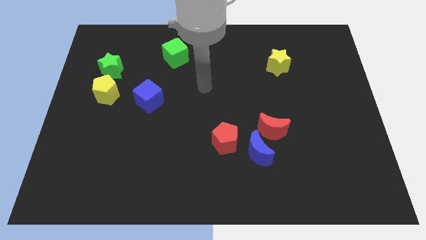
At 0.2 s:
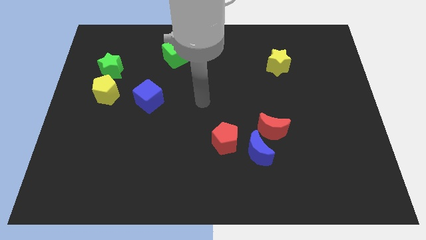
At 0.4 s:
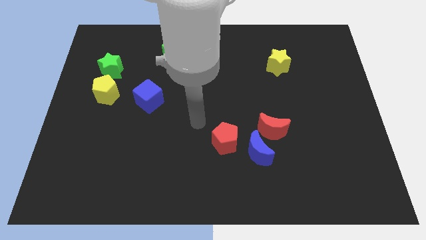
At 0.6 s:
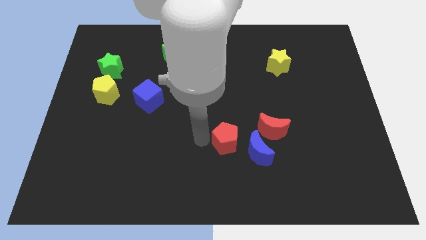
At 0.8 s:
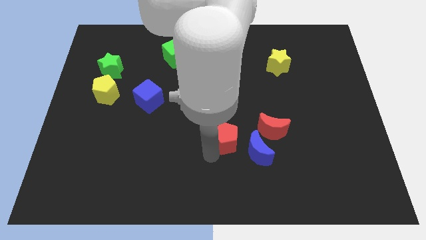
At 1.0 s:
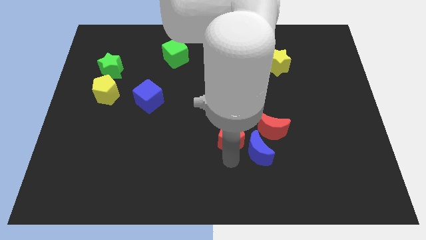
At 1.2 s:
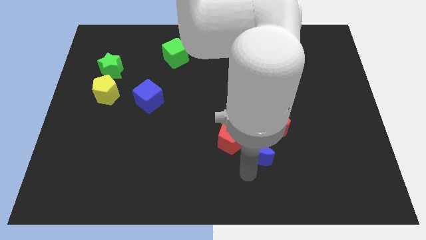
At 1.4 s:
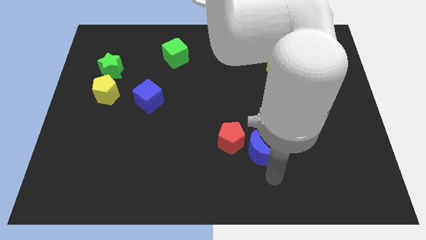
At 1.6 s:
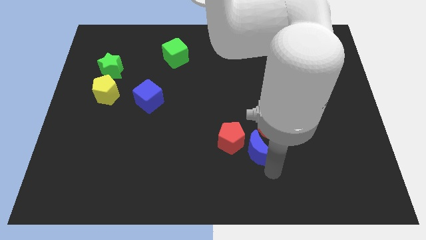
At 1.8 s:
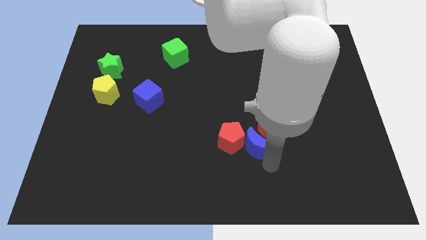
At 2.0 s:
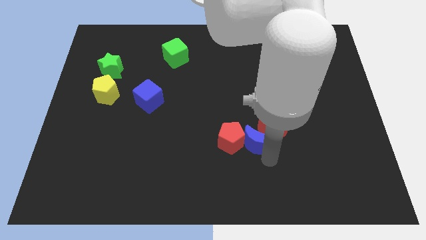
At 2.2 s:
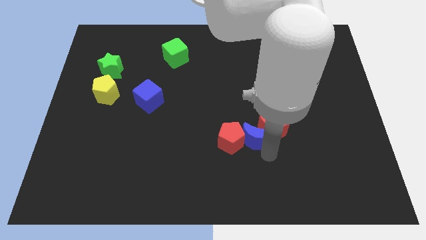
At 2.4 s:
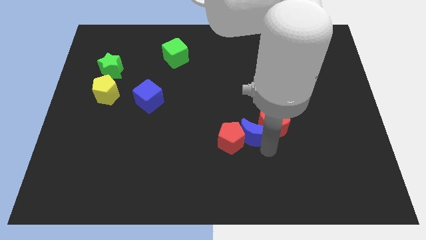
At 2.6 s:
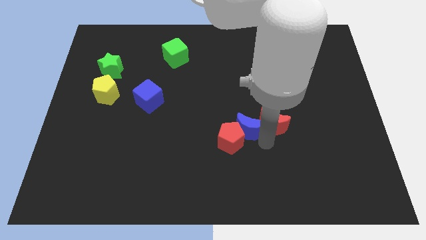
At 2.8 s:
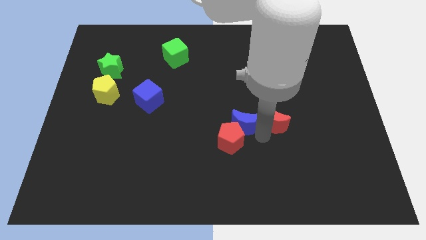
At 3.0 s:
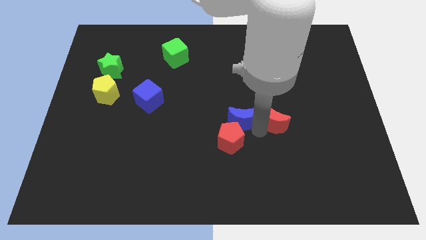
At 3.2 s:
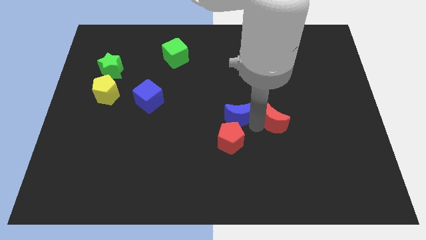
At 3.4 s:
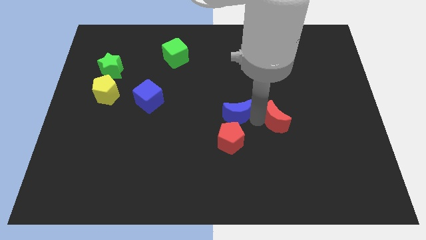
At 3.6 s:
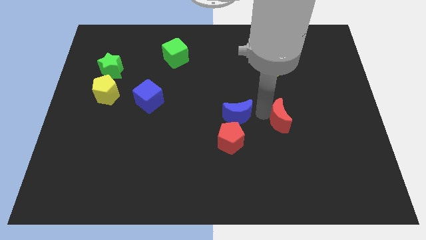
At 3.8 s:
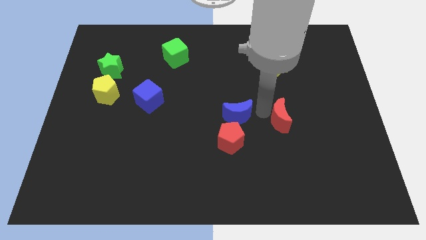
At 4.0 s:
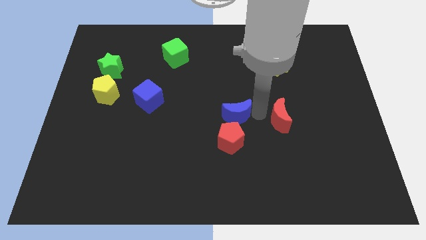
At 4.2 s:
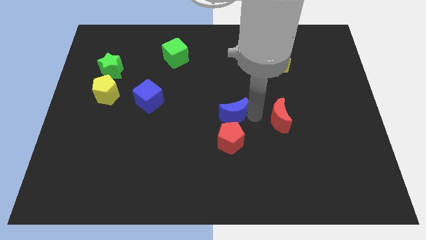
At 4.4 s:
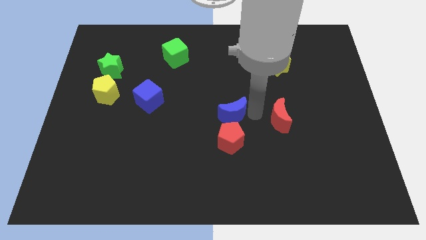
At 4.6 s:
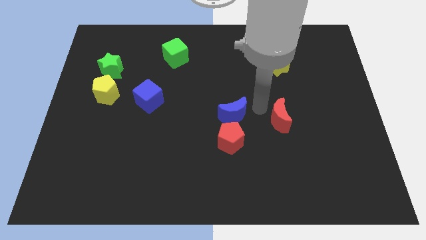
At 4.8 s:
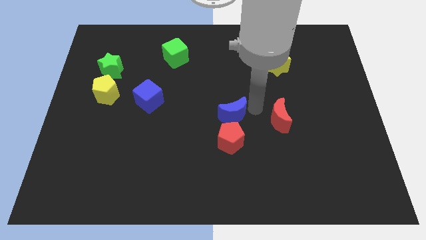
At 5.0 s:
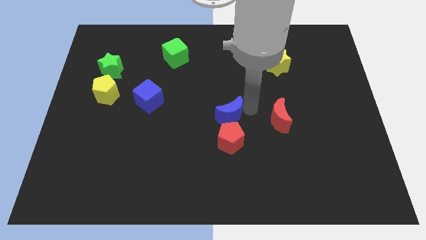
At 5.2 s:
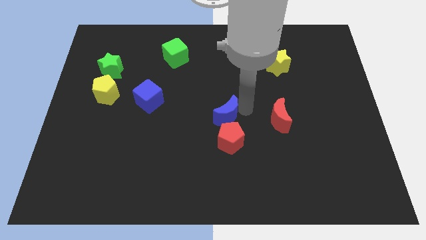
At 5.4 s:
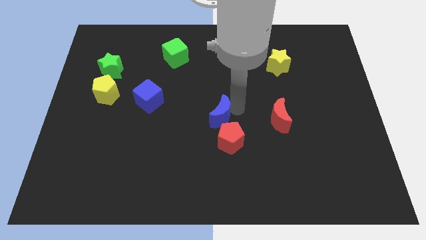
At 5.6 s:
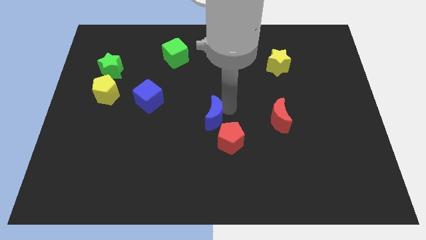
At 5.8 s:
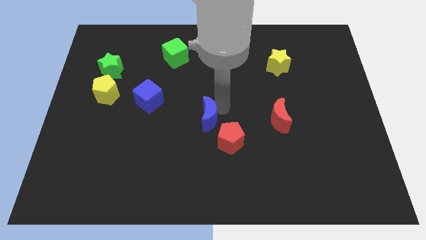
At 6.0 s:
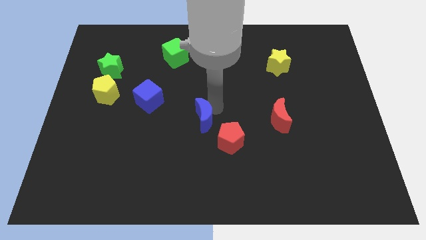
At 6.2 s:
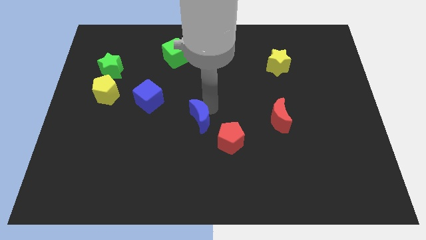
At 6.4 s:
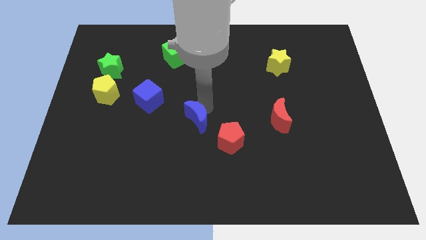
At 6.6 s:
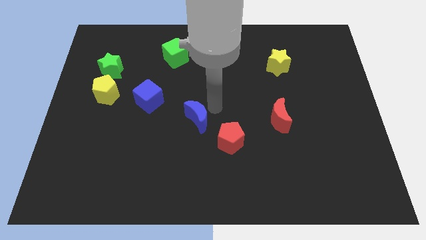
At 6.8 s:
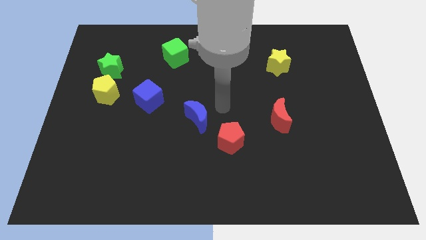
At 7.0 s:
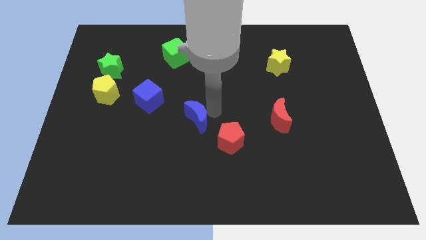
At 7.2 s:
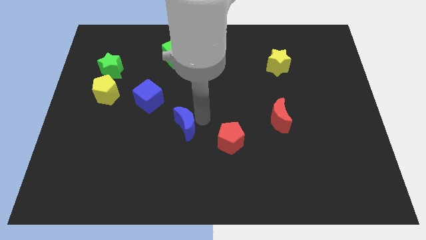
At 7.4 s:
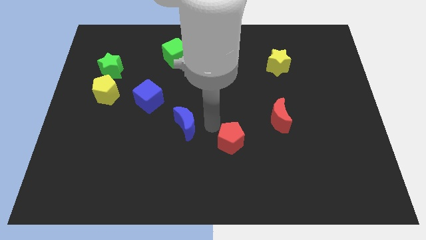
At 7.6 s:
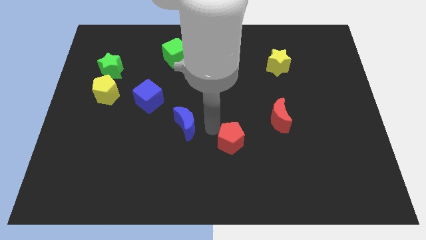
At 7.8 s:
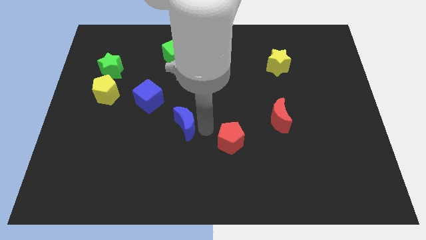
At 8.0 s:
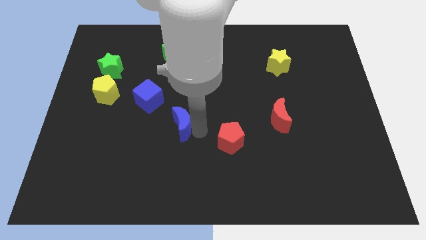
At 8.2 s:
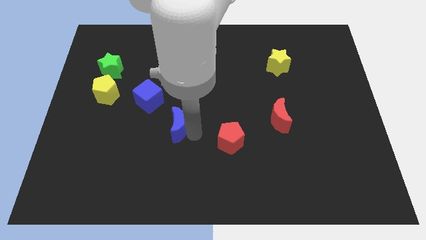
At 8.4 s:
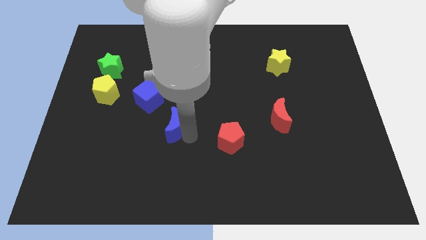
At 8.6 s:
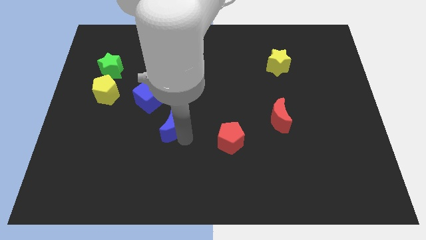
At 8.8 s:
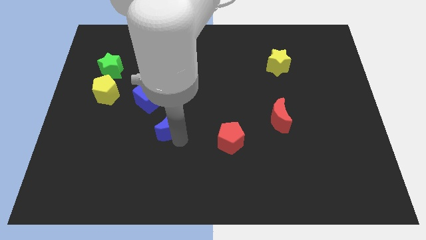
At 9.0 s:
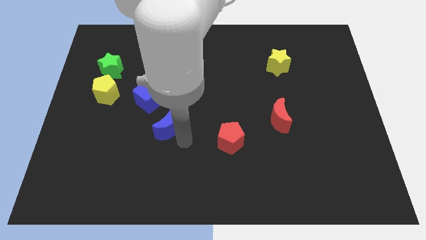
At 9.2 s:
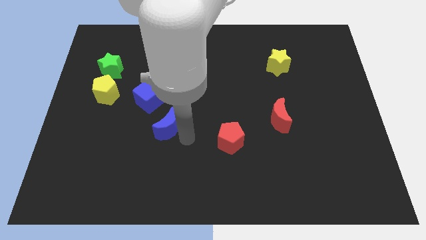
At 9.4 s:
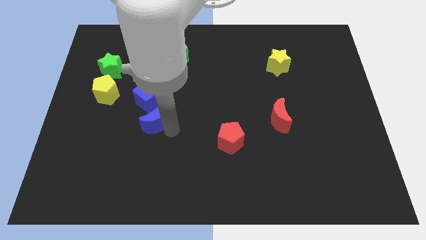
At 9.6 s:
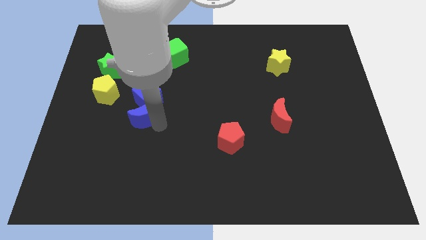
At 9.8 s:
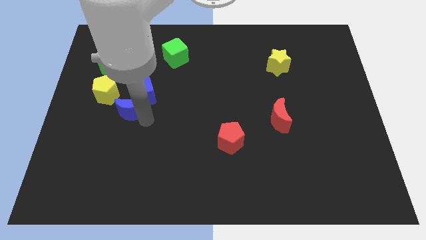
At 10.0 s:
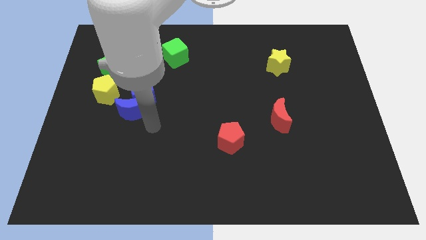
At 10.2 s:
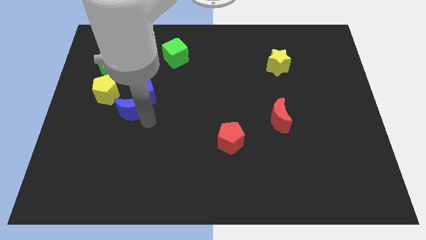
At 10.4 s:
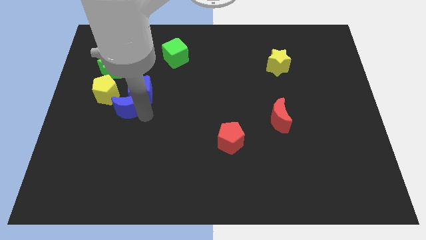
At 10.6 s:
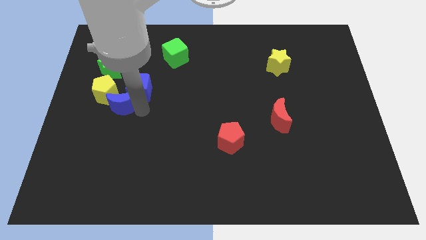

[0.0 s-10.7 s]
push the blue moon towards the yellow pentagon

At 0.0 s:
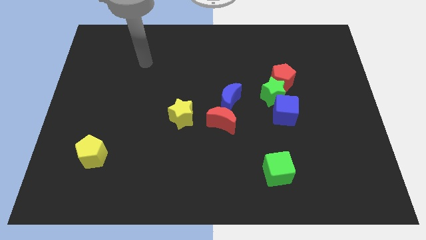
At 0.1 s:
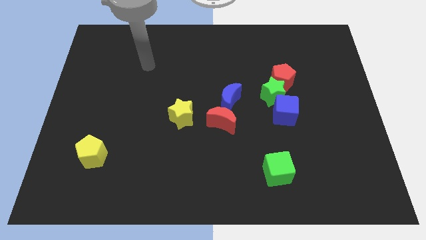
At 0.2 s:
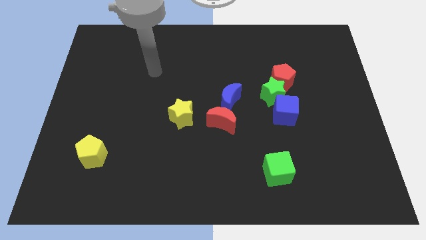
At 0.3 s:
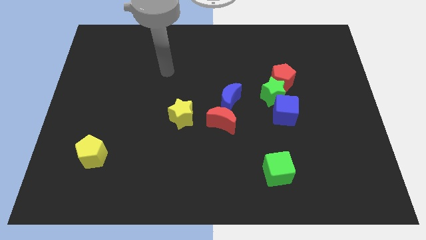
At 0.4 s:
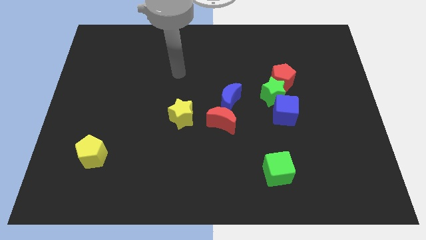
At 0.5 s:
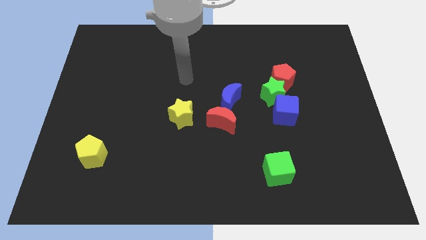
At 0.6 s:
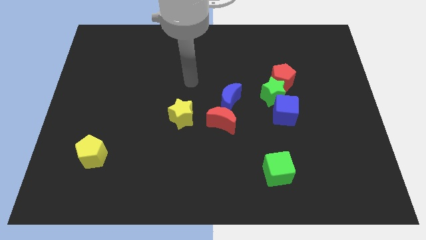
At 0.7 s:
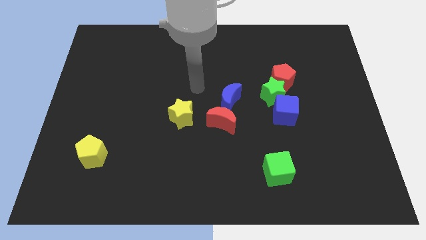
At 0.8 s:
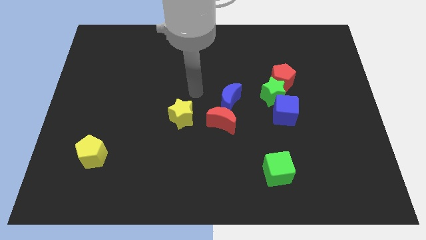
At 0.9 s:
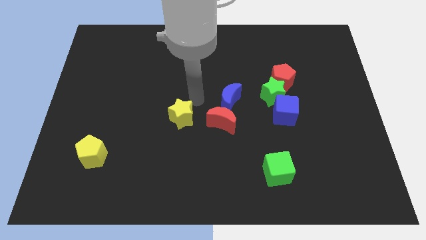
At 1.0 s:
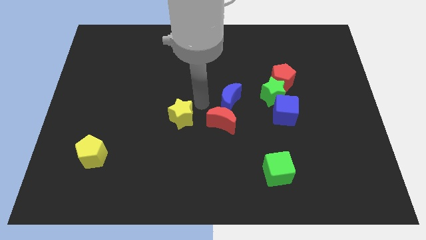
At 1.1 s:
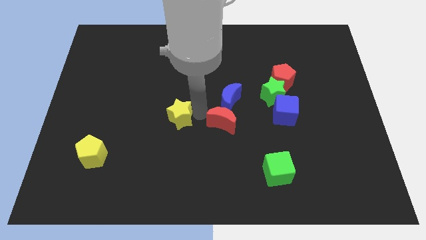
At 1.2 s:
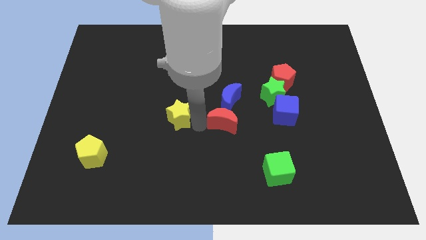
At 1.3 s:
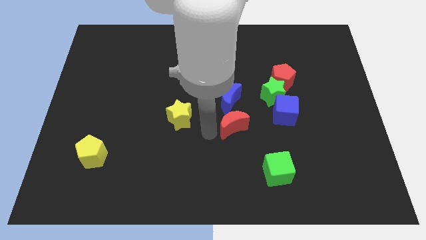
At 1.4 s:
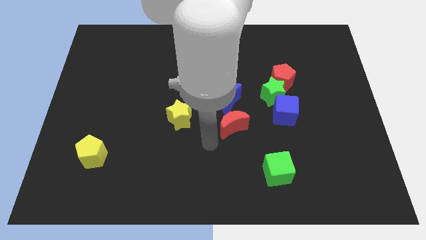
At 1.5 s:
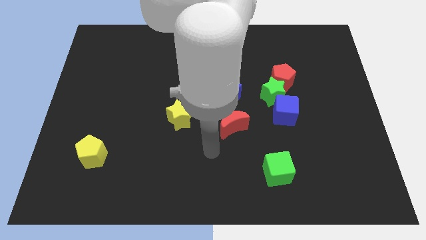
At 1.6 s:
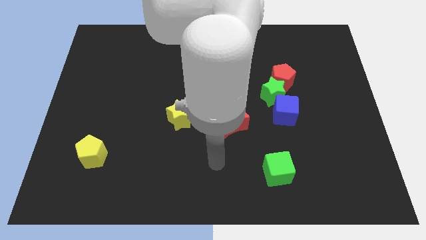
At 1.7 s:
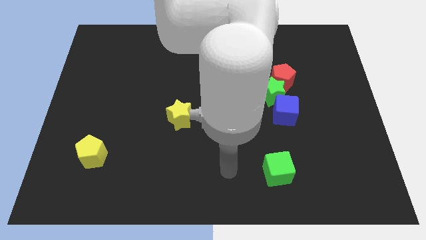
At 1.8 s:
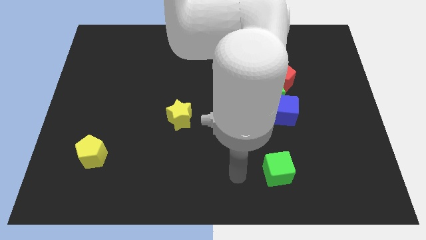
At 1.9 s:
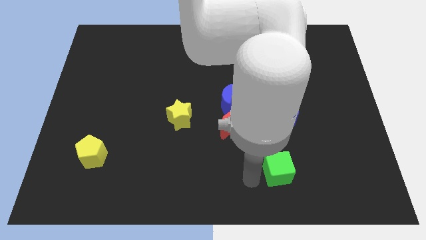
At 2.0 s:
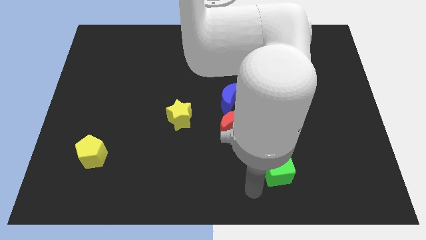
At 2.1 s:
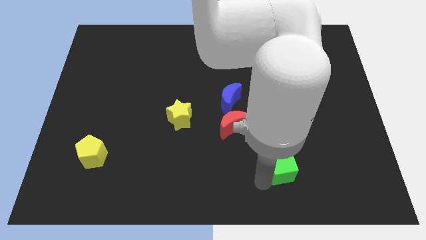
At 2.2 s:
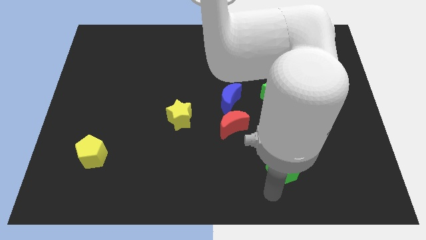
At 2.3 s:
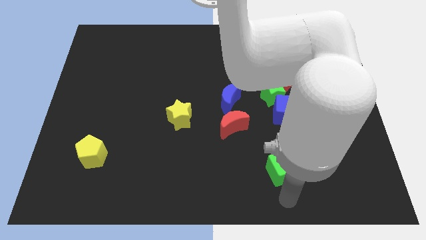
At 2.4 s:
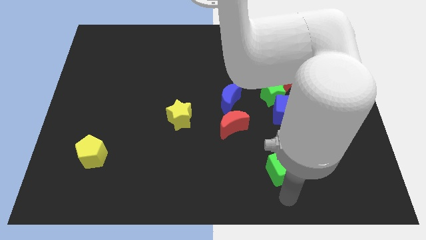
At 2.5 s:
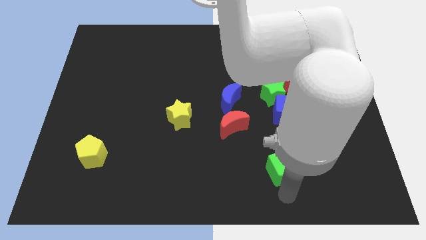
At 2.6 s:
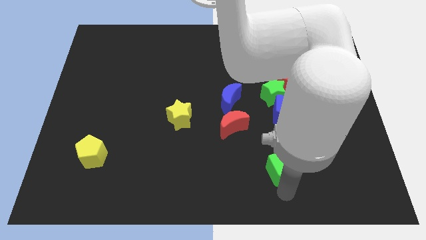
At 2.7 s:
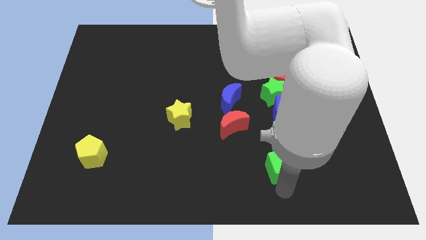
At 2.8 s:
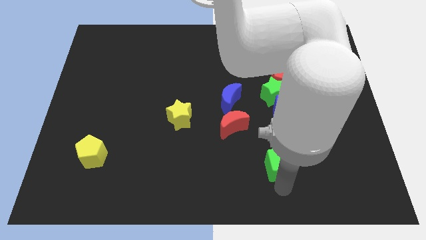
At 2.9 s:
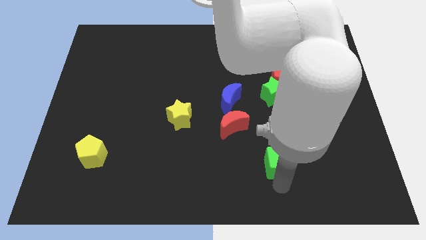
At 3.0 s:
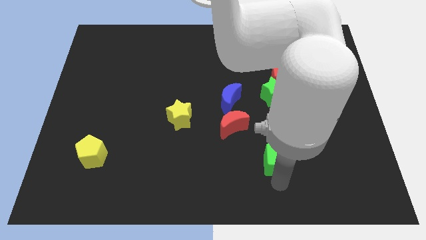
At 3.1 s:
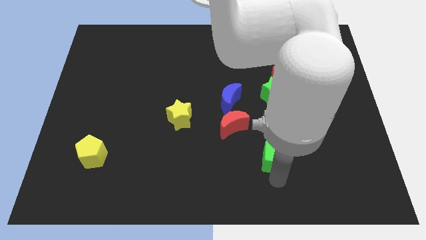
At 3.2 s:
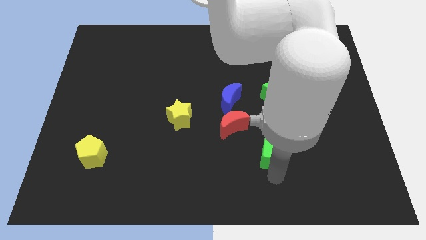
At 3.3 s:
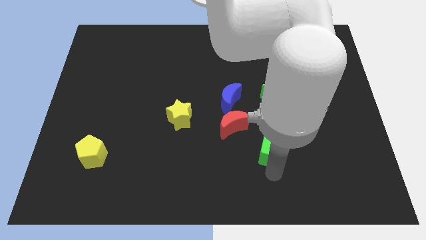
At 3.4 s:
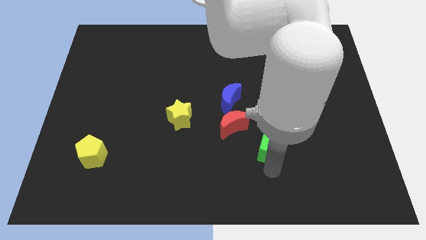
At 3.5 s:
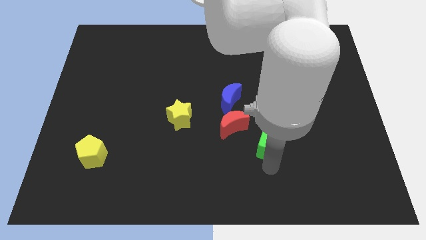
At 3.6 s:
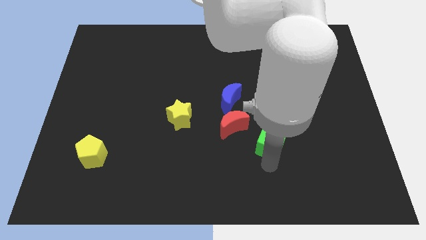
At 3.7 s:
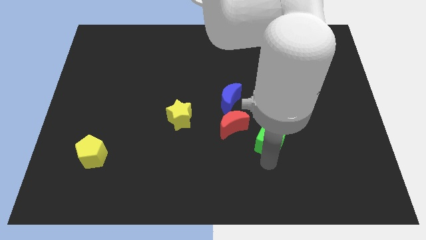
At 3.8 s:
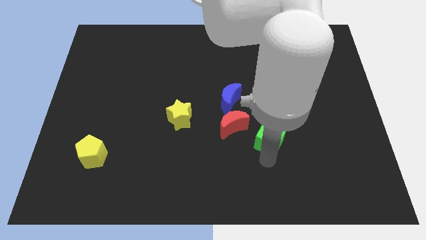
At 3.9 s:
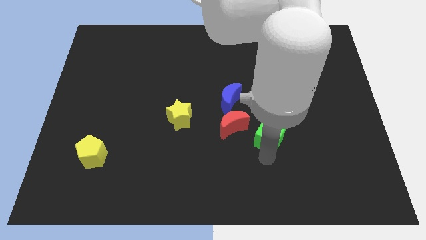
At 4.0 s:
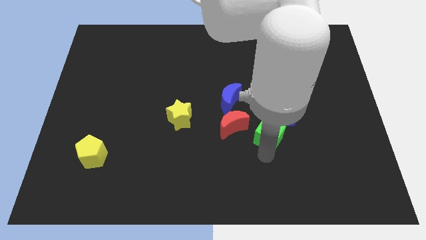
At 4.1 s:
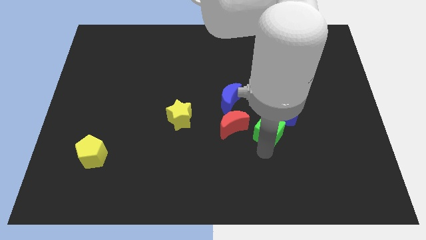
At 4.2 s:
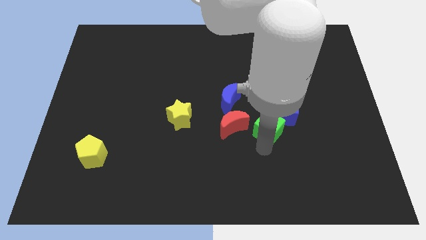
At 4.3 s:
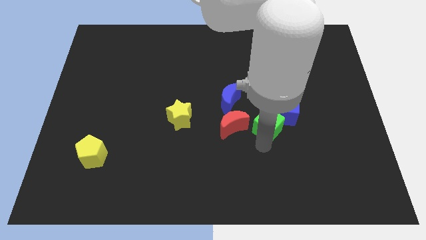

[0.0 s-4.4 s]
push the green cube to the blue cube
